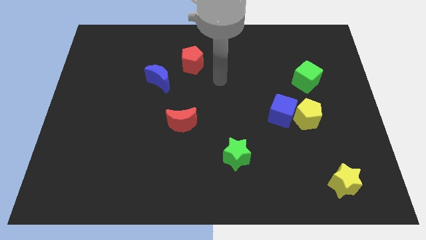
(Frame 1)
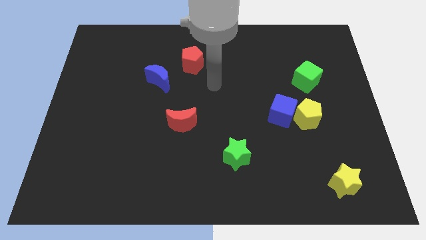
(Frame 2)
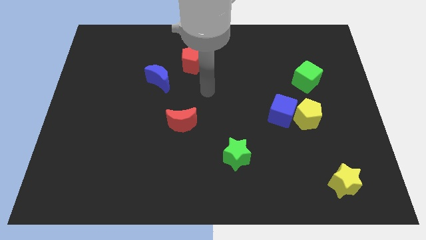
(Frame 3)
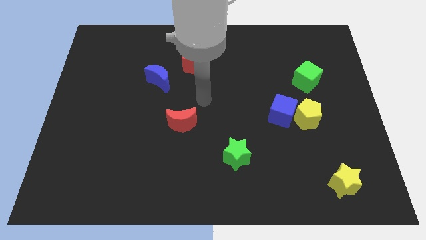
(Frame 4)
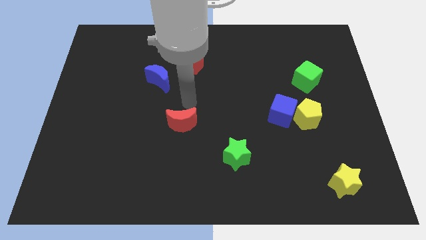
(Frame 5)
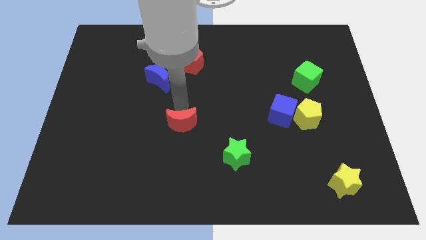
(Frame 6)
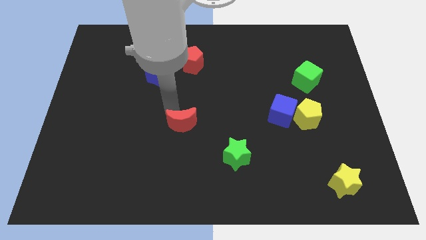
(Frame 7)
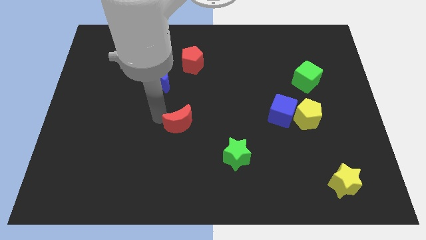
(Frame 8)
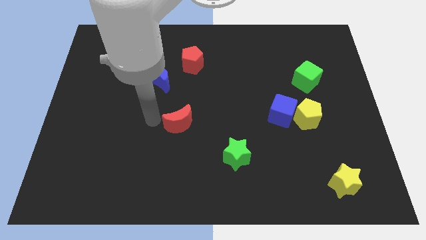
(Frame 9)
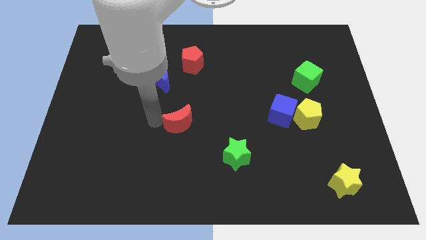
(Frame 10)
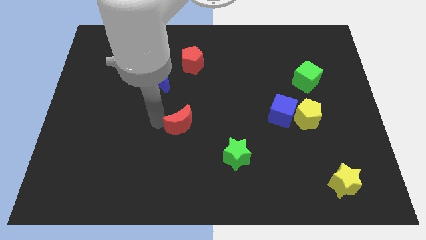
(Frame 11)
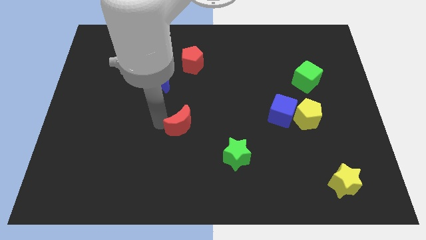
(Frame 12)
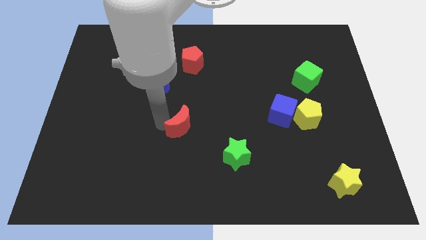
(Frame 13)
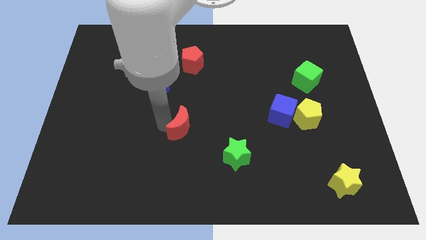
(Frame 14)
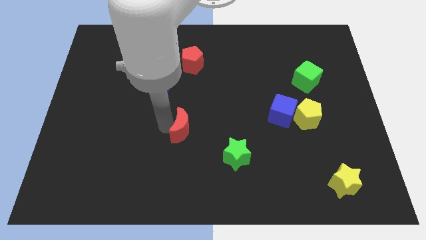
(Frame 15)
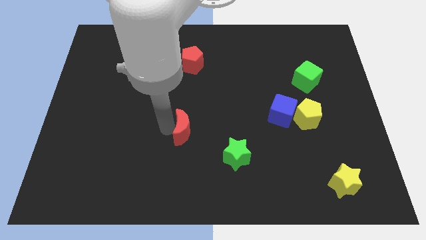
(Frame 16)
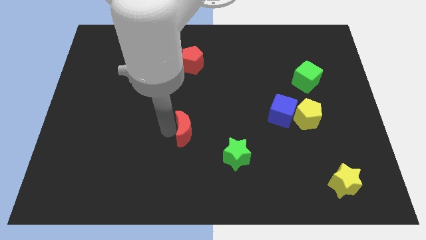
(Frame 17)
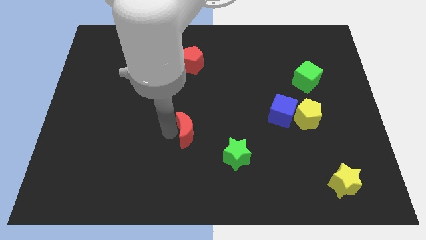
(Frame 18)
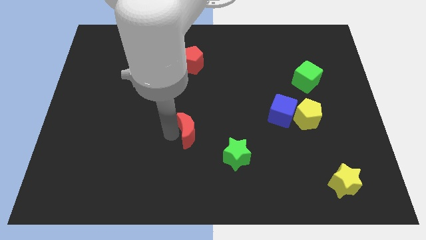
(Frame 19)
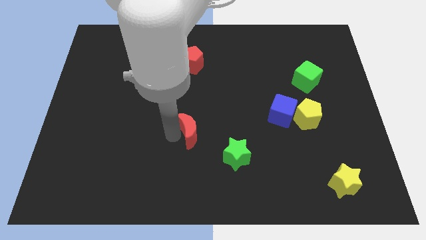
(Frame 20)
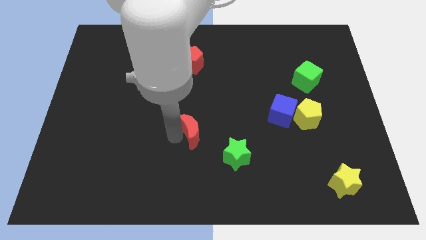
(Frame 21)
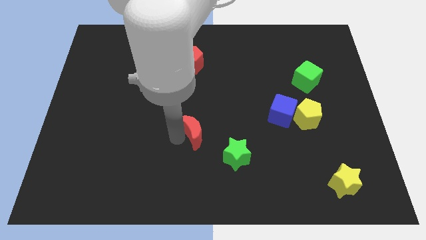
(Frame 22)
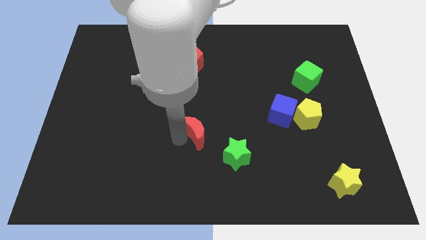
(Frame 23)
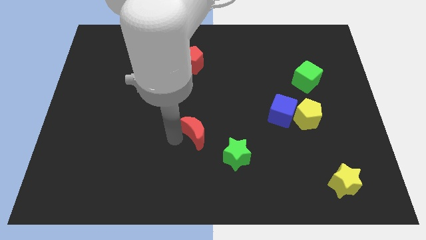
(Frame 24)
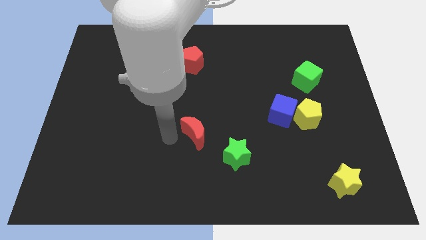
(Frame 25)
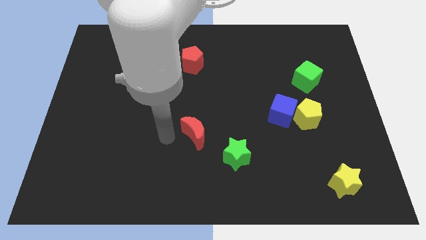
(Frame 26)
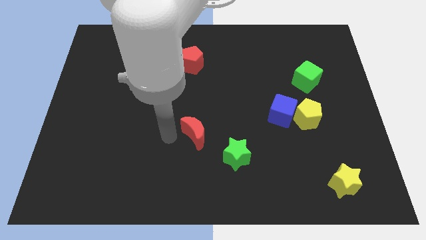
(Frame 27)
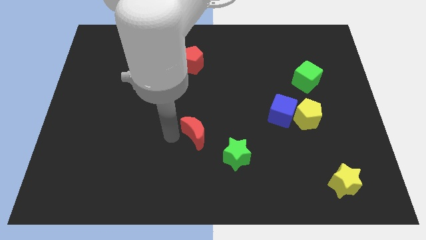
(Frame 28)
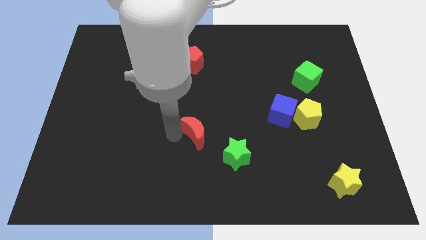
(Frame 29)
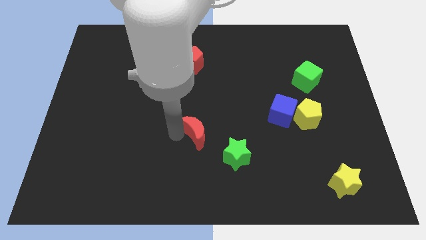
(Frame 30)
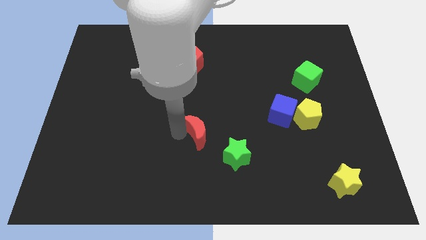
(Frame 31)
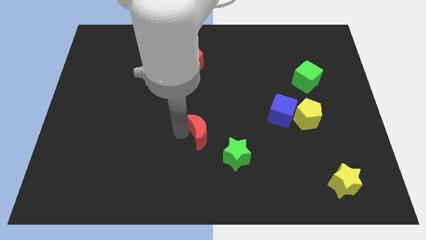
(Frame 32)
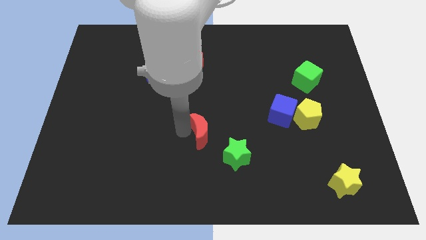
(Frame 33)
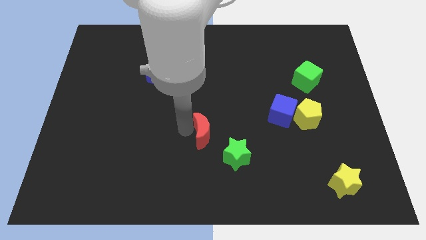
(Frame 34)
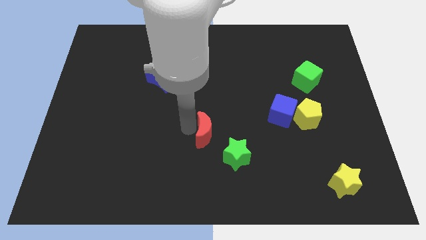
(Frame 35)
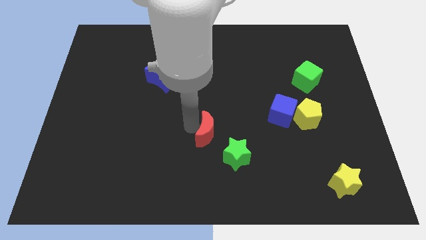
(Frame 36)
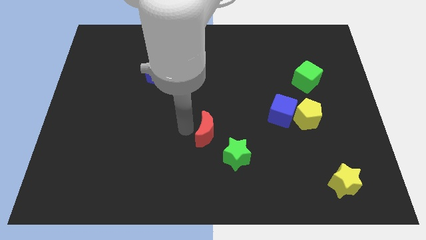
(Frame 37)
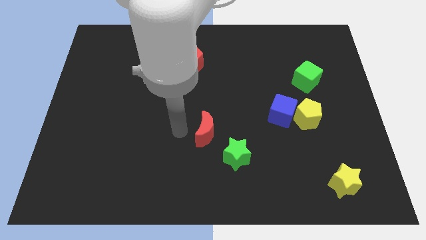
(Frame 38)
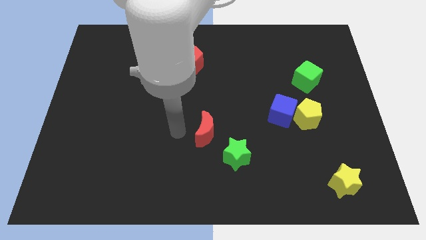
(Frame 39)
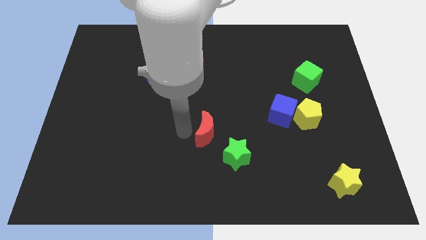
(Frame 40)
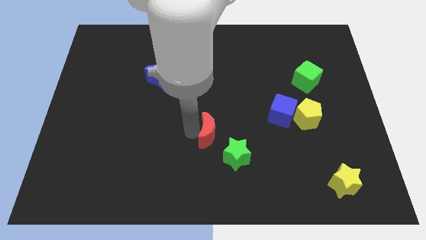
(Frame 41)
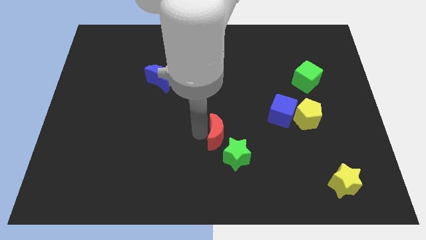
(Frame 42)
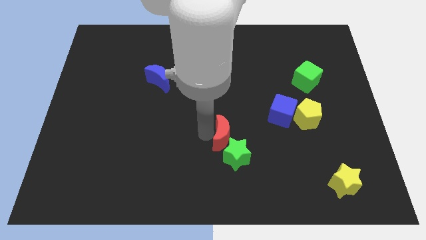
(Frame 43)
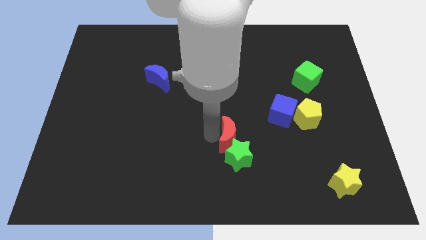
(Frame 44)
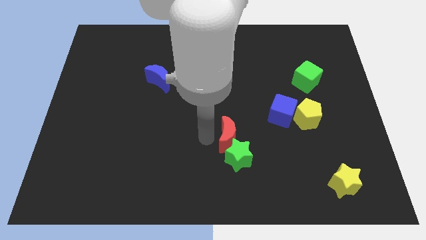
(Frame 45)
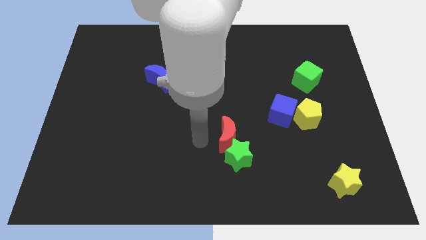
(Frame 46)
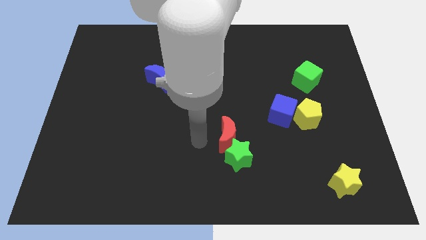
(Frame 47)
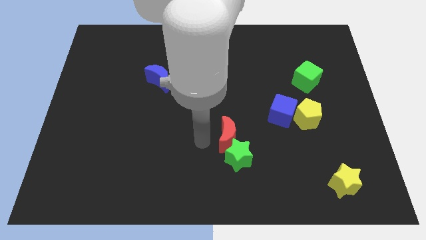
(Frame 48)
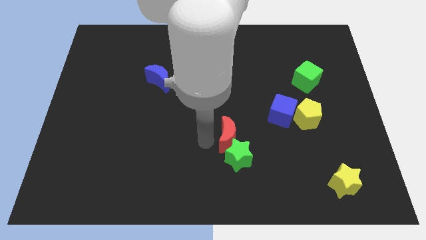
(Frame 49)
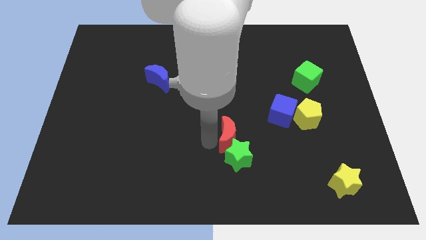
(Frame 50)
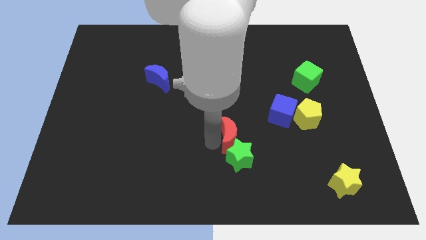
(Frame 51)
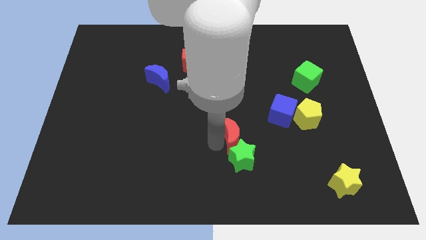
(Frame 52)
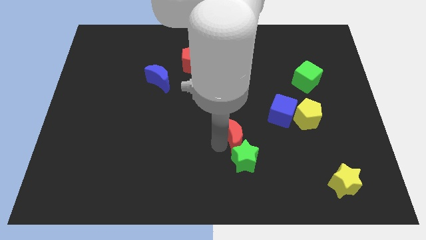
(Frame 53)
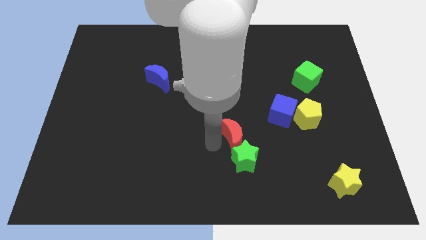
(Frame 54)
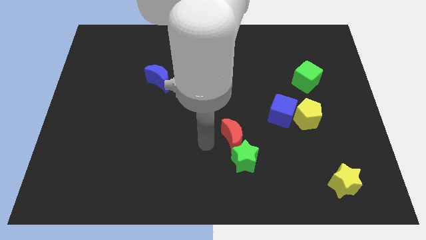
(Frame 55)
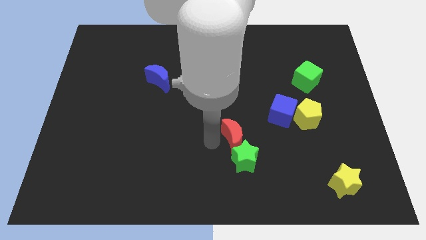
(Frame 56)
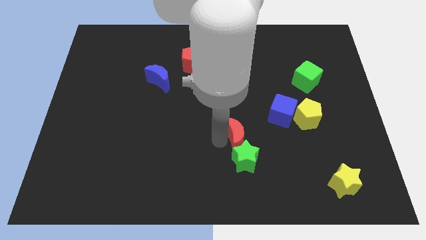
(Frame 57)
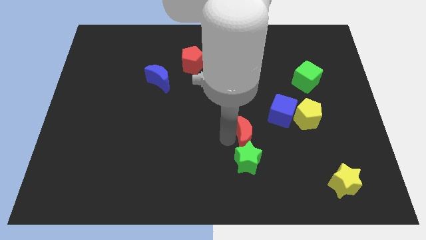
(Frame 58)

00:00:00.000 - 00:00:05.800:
put the red moon to the bottom left side of the blue cube

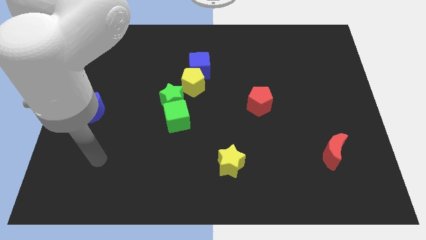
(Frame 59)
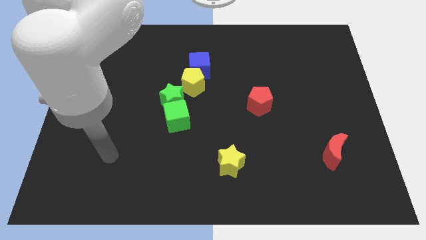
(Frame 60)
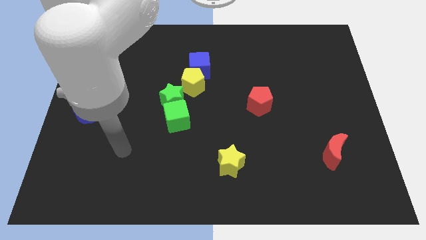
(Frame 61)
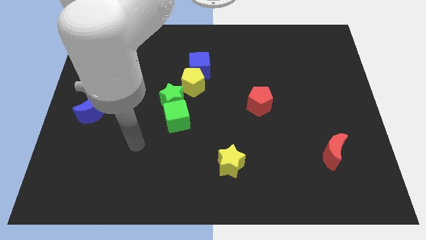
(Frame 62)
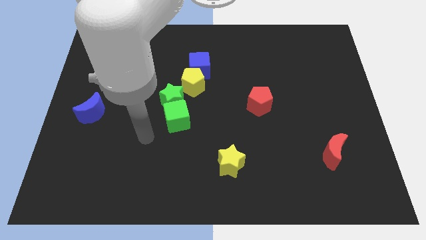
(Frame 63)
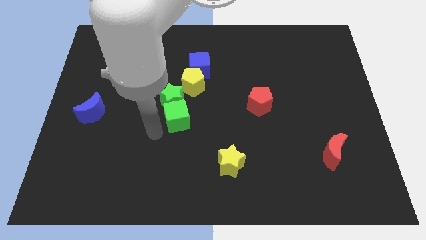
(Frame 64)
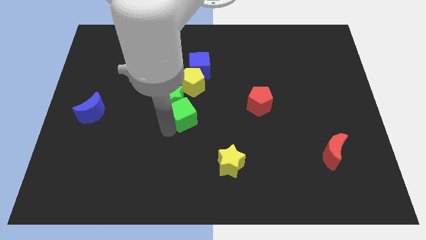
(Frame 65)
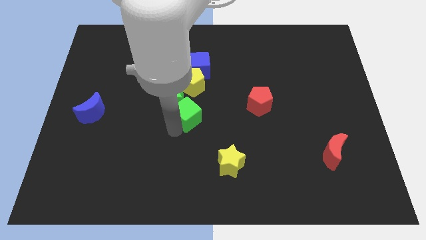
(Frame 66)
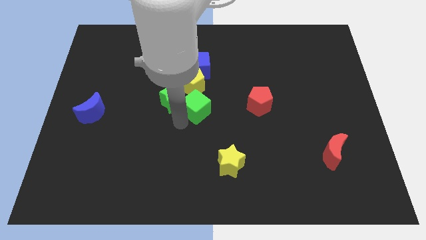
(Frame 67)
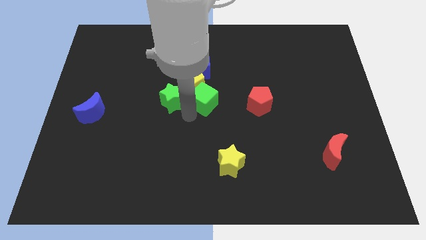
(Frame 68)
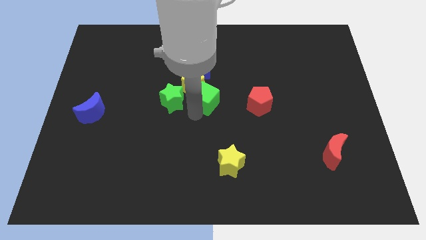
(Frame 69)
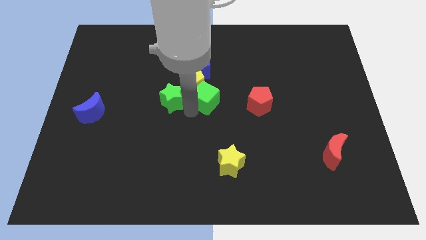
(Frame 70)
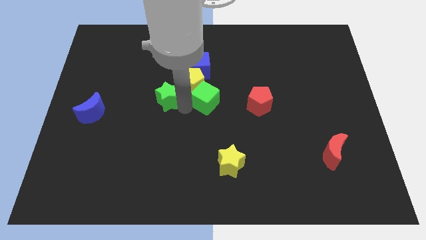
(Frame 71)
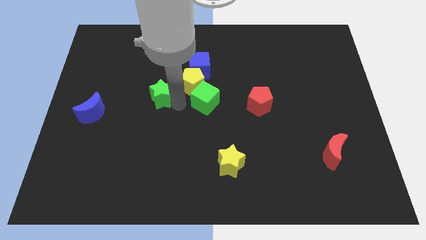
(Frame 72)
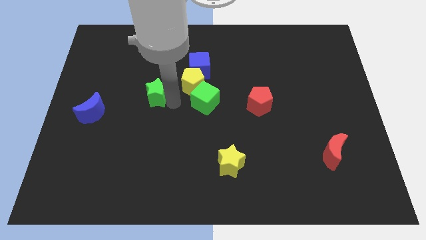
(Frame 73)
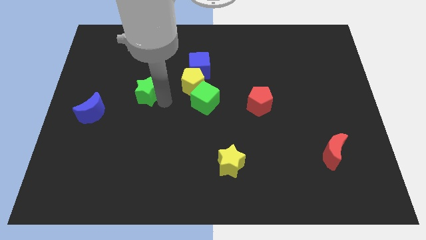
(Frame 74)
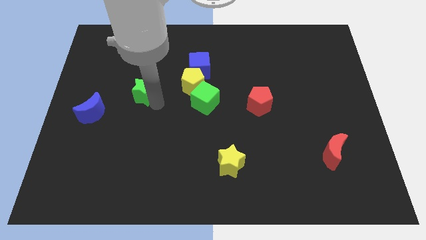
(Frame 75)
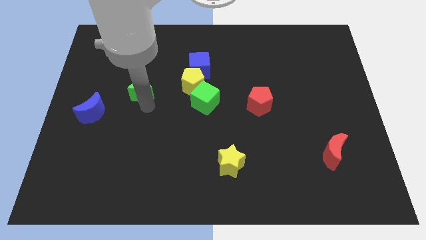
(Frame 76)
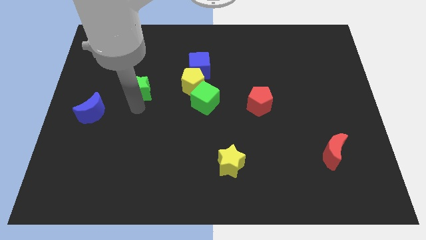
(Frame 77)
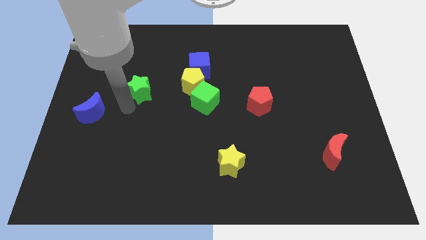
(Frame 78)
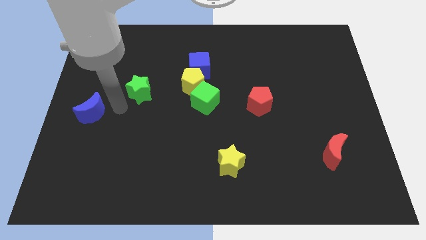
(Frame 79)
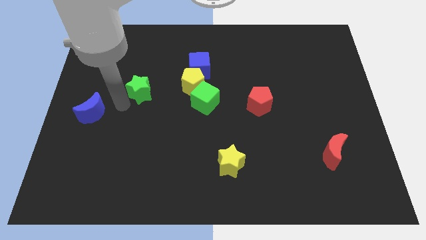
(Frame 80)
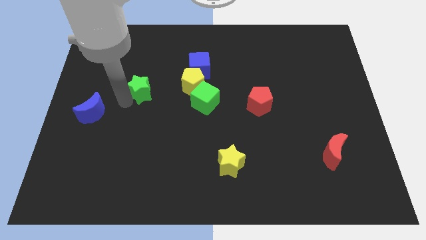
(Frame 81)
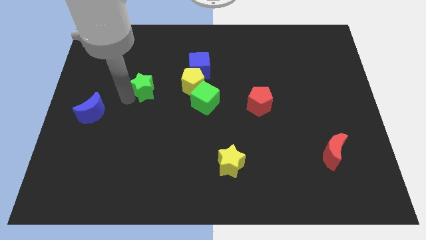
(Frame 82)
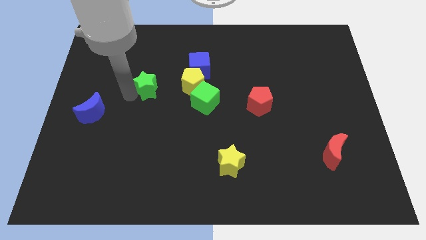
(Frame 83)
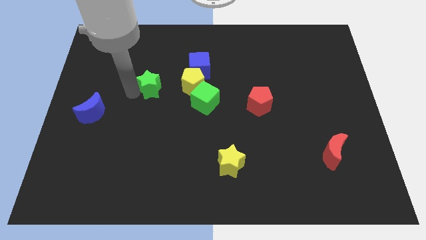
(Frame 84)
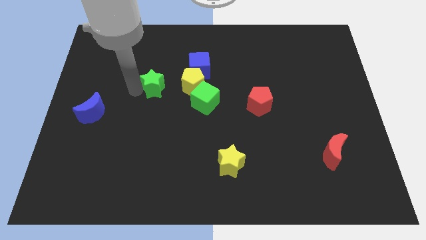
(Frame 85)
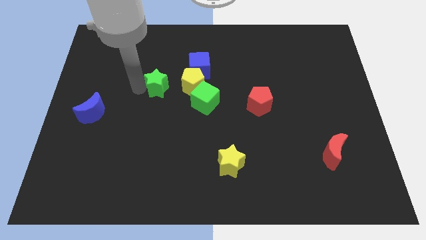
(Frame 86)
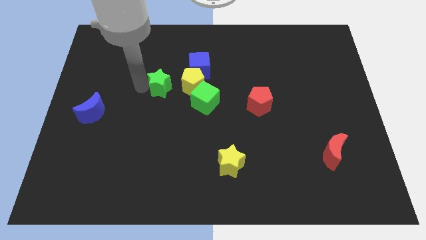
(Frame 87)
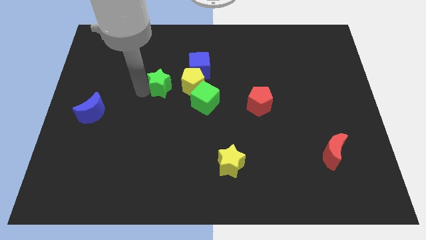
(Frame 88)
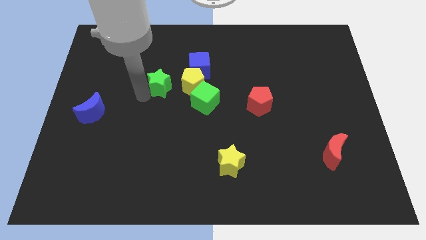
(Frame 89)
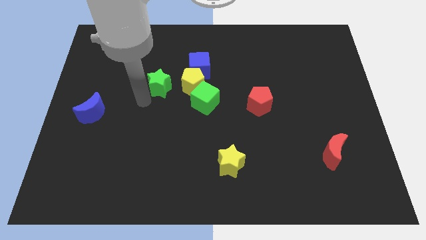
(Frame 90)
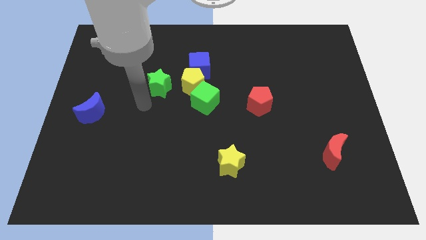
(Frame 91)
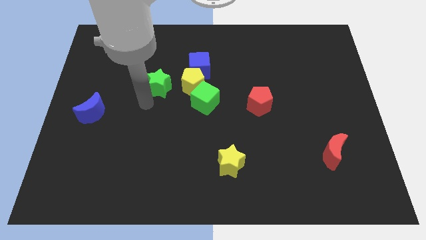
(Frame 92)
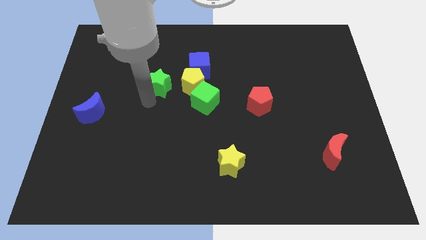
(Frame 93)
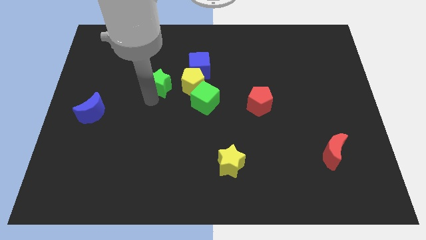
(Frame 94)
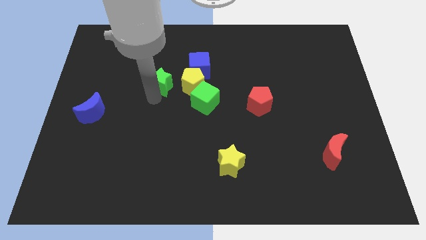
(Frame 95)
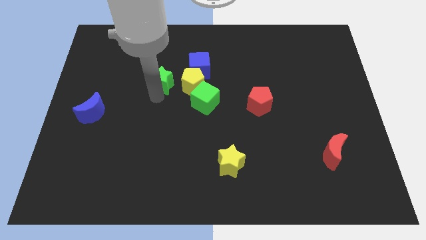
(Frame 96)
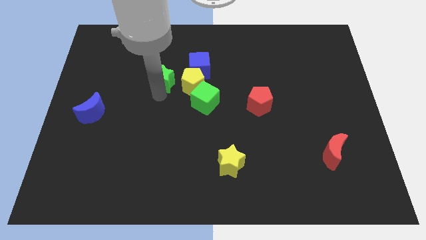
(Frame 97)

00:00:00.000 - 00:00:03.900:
put the green star to the top left side of the yellow pentagon
